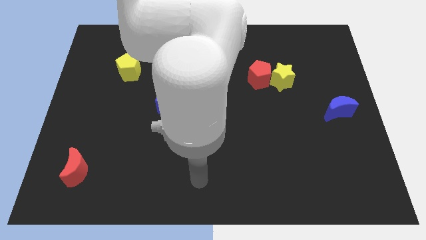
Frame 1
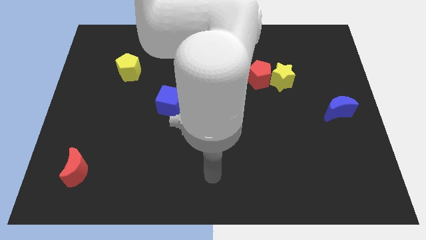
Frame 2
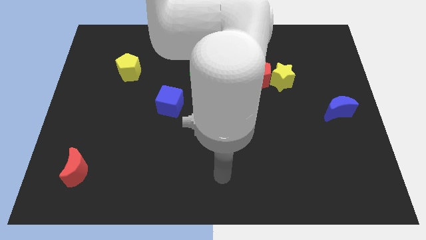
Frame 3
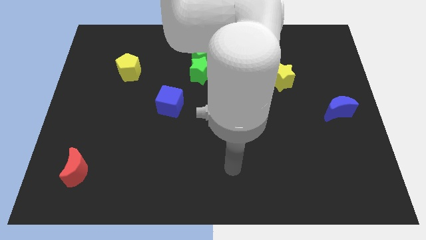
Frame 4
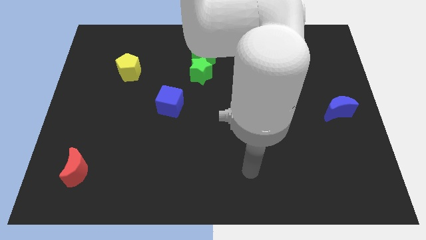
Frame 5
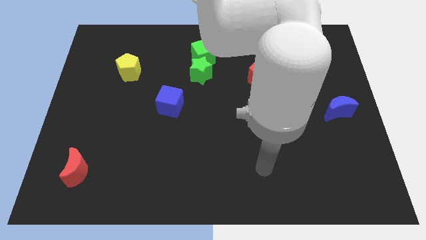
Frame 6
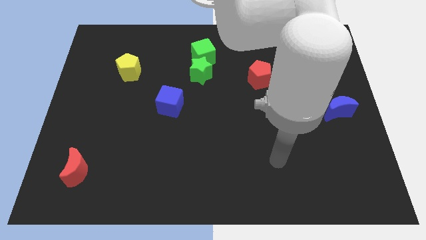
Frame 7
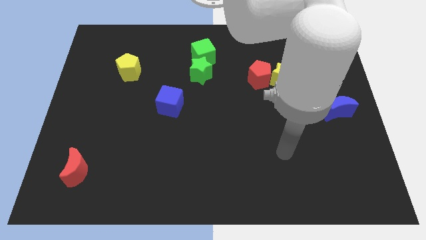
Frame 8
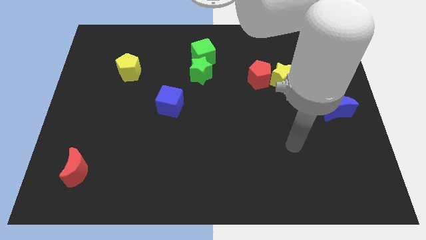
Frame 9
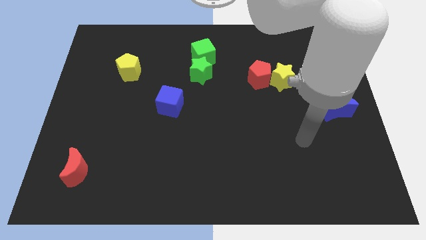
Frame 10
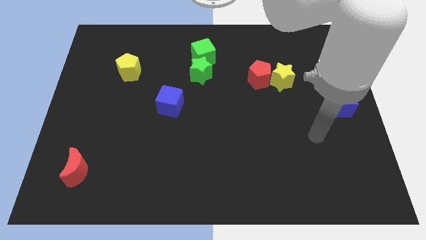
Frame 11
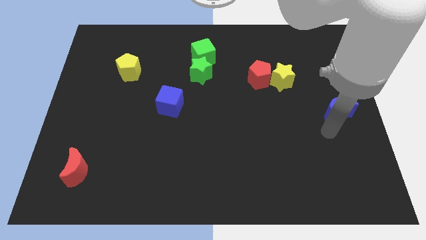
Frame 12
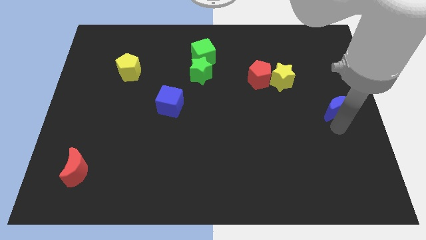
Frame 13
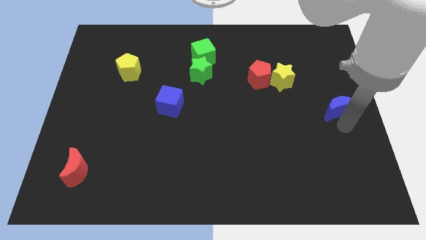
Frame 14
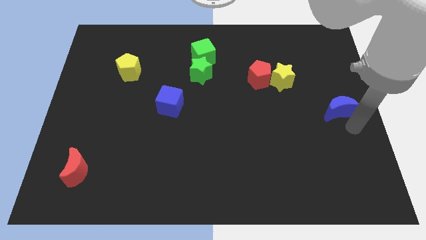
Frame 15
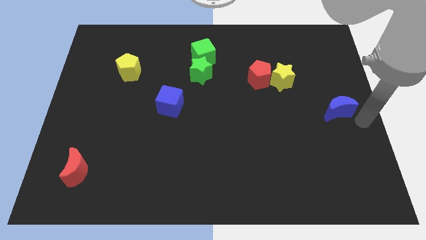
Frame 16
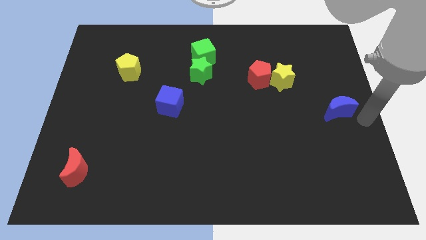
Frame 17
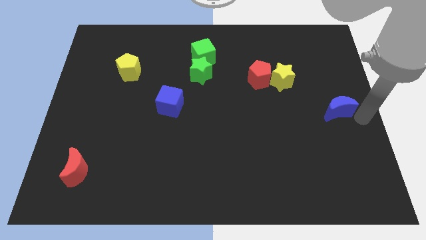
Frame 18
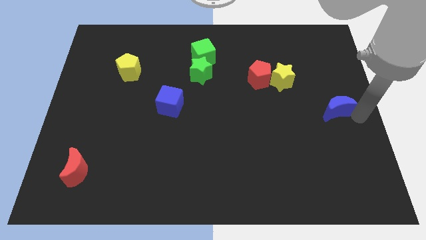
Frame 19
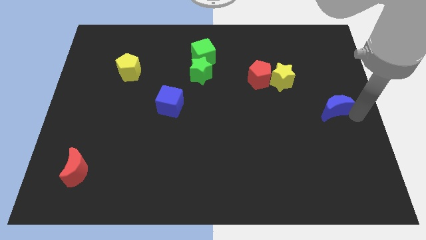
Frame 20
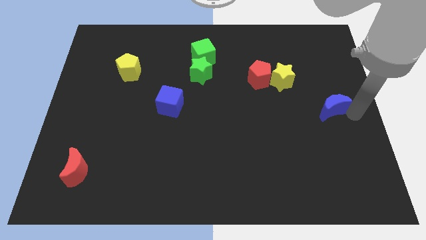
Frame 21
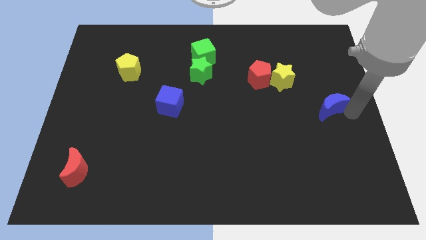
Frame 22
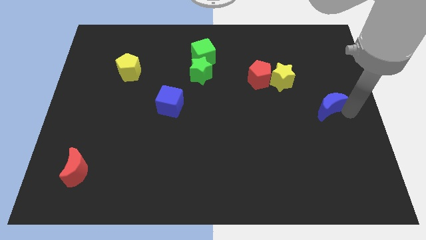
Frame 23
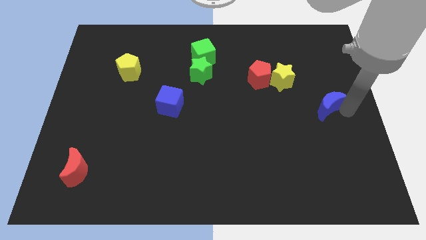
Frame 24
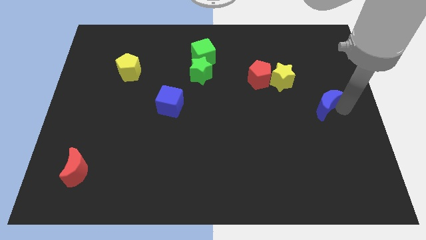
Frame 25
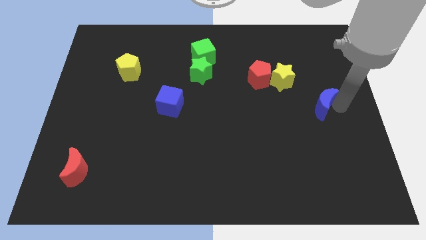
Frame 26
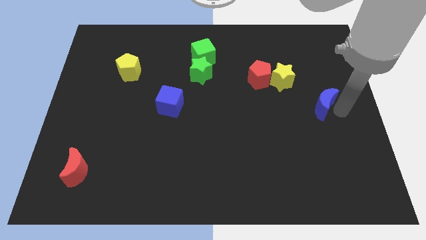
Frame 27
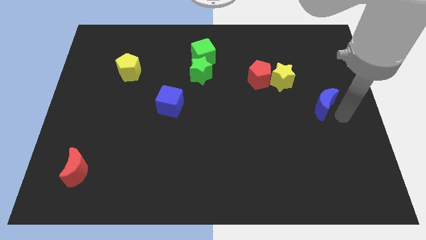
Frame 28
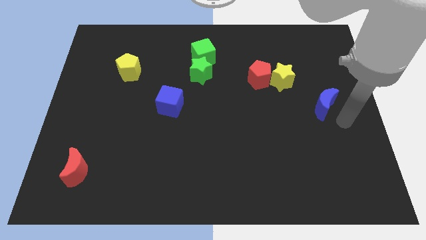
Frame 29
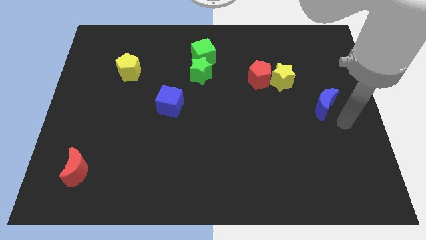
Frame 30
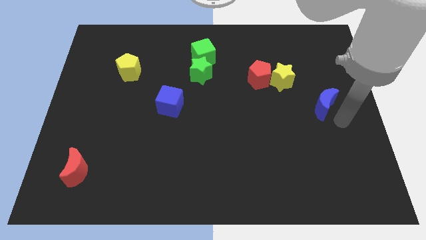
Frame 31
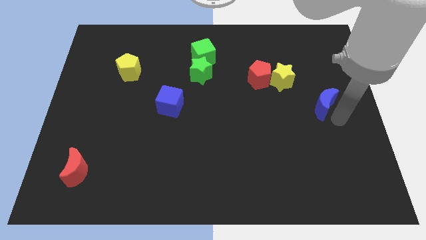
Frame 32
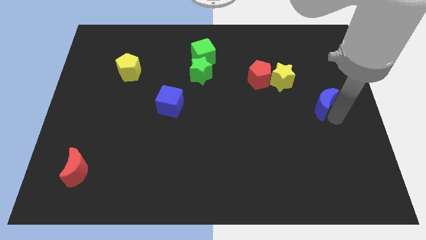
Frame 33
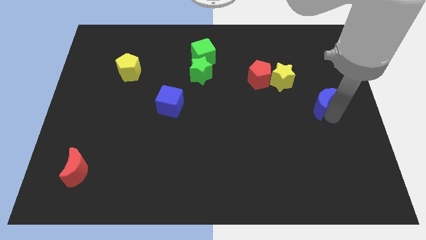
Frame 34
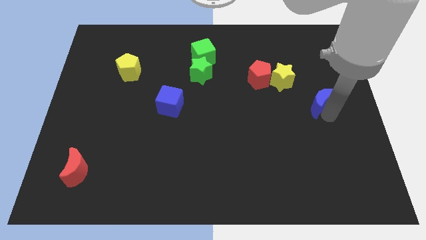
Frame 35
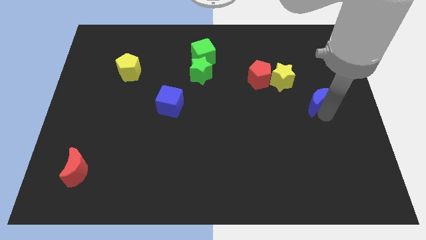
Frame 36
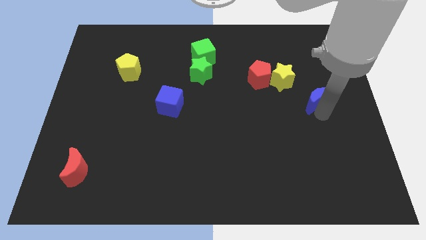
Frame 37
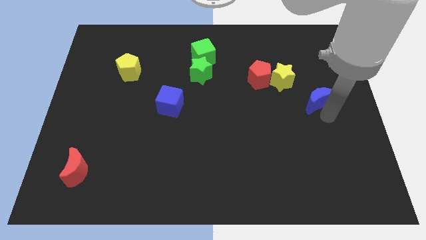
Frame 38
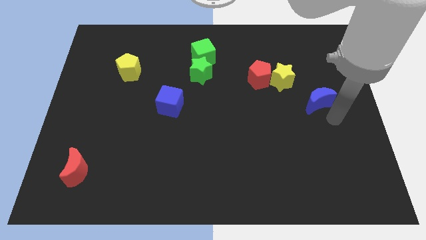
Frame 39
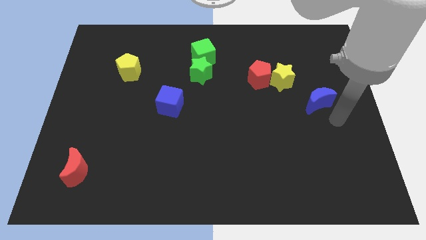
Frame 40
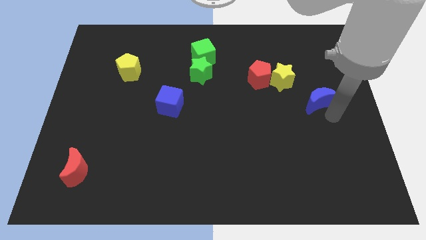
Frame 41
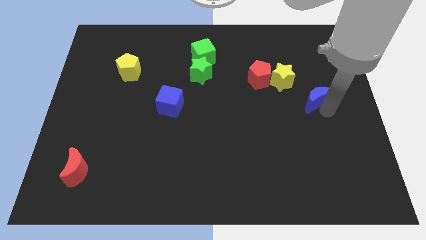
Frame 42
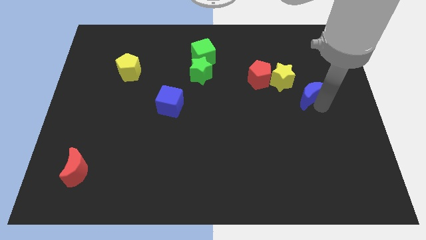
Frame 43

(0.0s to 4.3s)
slightly move the blue moon upwards and left diagonally

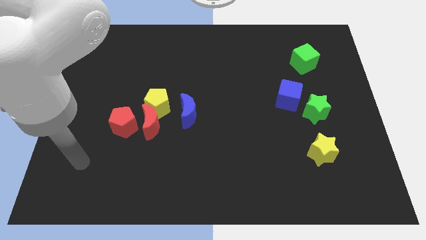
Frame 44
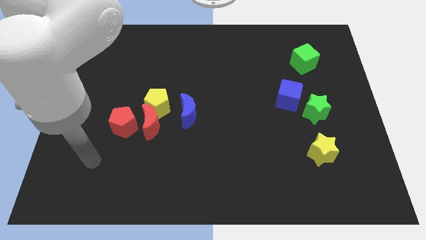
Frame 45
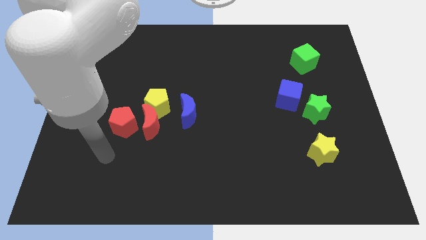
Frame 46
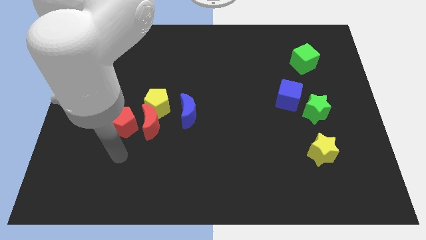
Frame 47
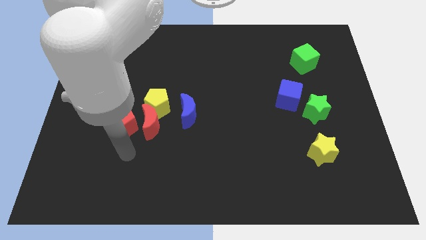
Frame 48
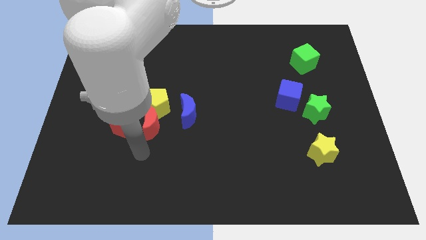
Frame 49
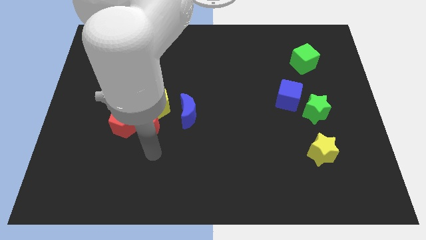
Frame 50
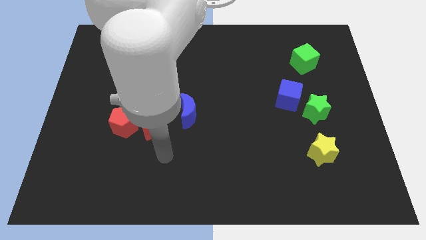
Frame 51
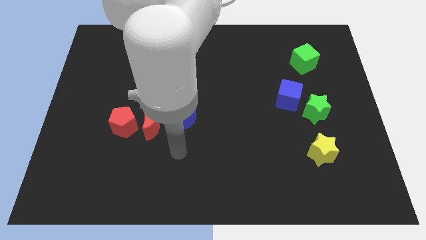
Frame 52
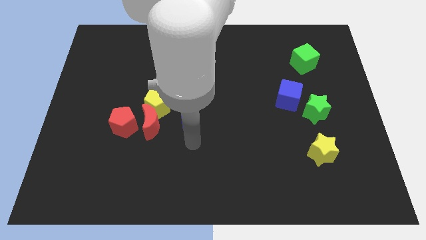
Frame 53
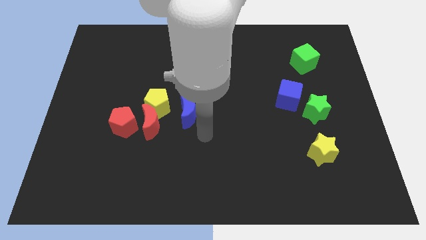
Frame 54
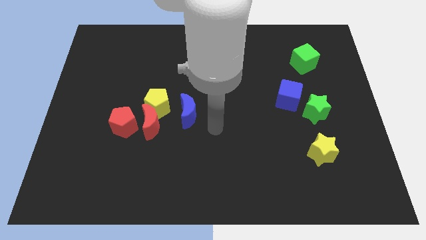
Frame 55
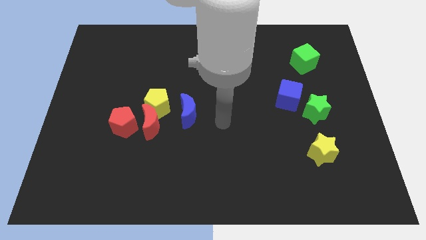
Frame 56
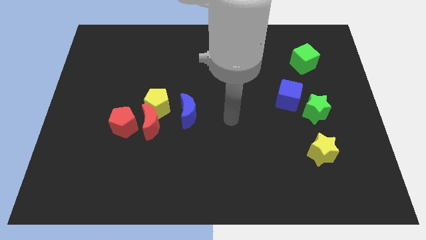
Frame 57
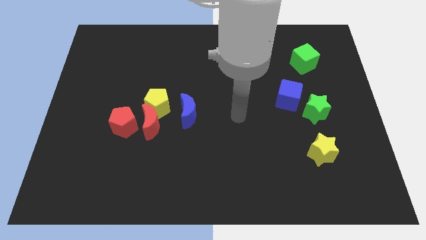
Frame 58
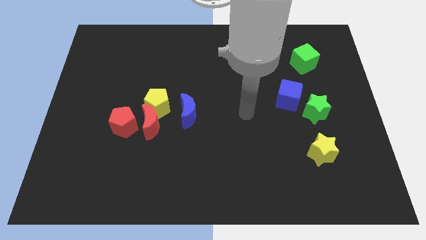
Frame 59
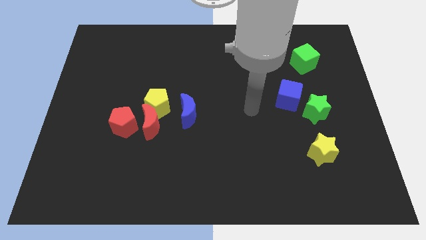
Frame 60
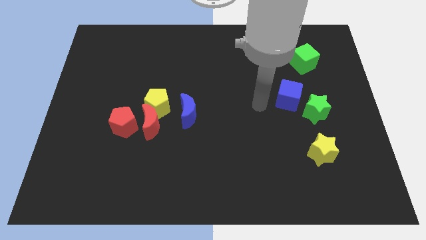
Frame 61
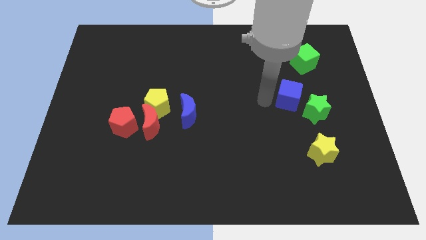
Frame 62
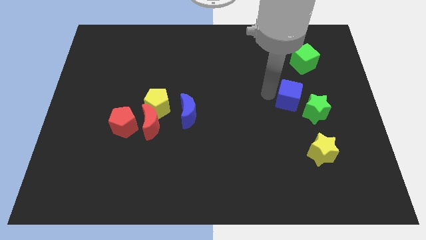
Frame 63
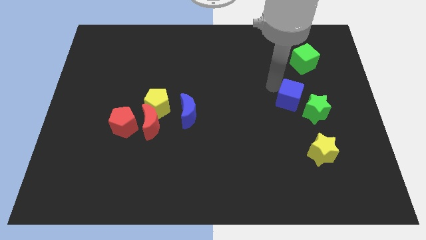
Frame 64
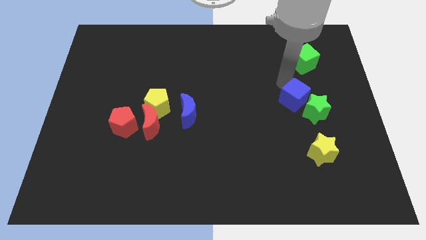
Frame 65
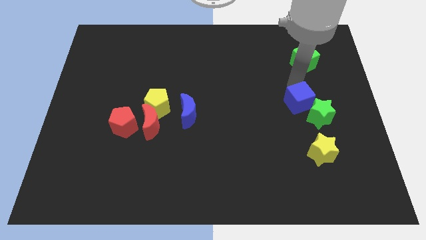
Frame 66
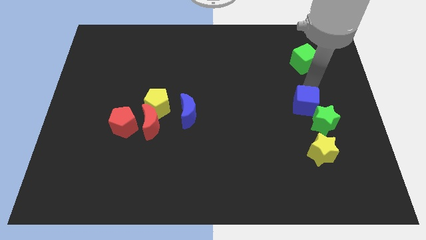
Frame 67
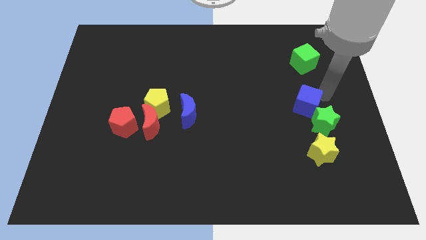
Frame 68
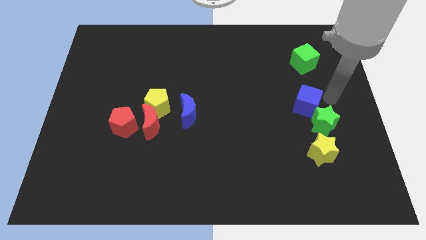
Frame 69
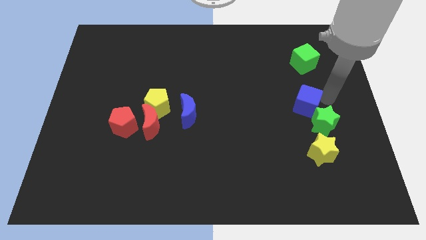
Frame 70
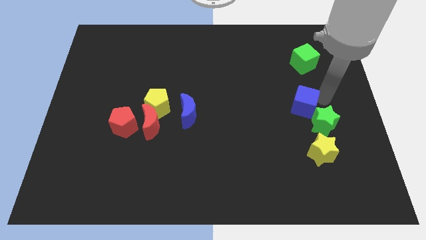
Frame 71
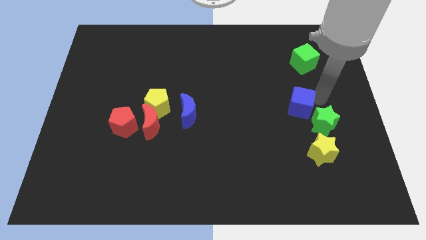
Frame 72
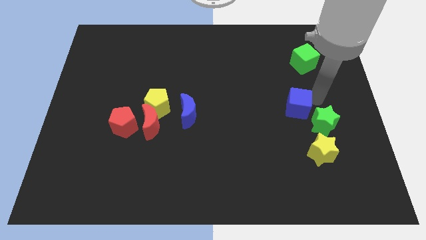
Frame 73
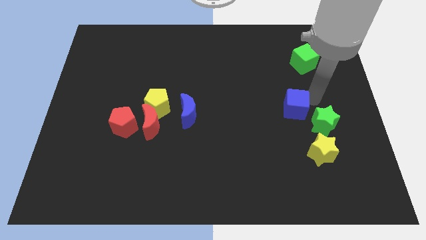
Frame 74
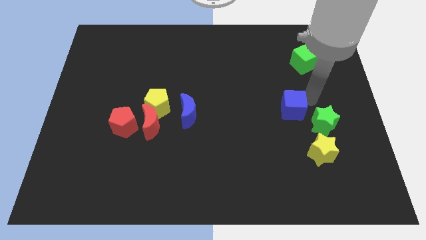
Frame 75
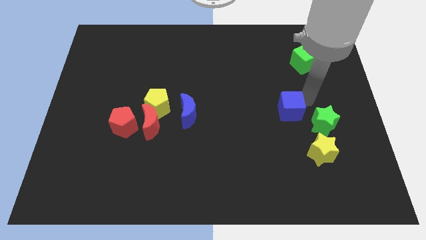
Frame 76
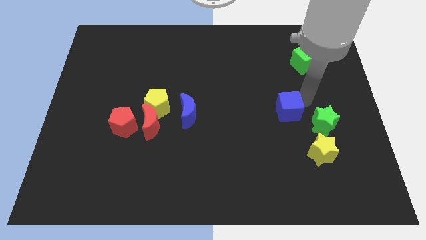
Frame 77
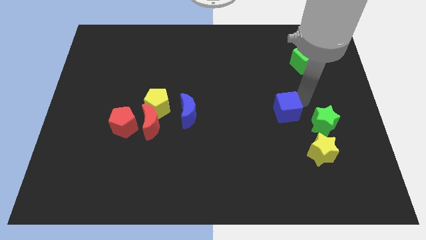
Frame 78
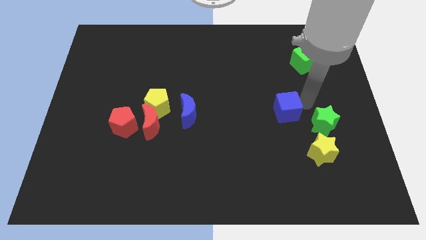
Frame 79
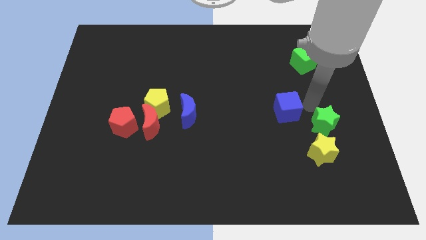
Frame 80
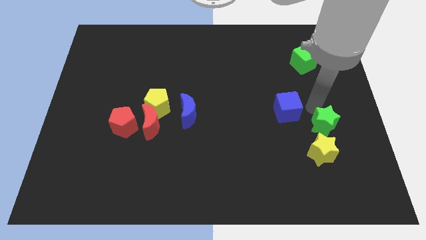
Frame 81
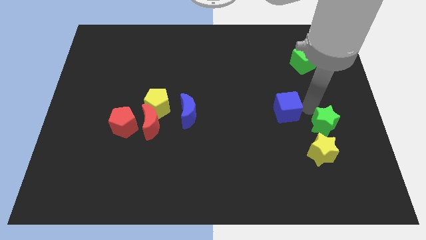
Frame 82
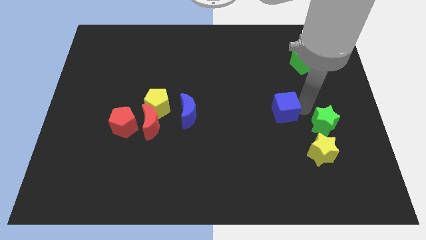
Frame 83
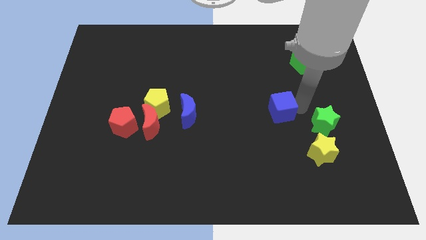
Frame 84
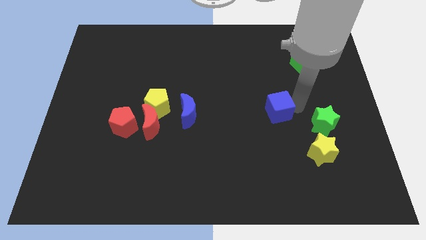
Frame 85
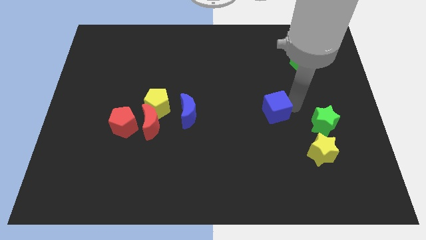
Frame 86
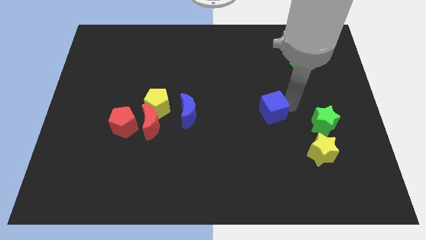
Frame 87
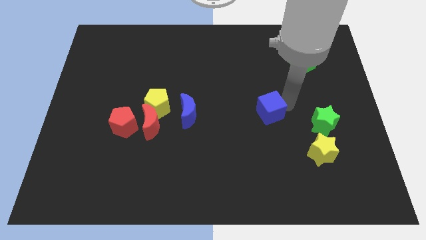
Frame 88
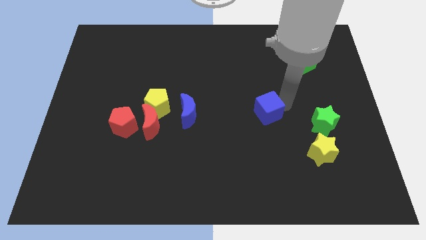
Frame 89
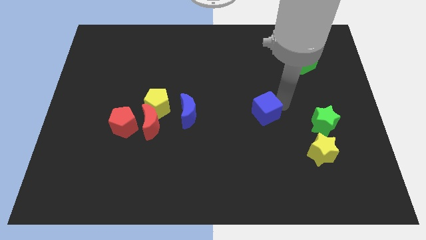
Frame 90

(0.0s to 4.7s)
slide the blue cube downwards and then left a little bit
